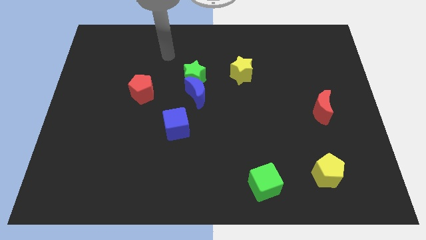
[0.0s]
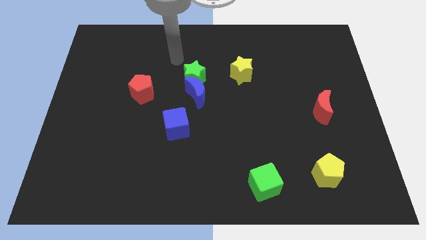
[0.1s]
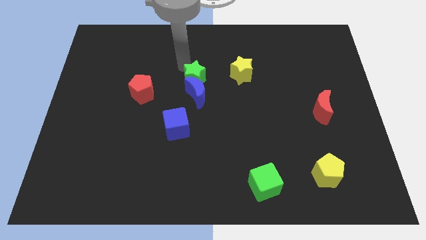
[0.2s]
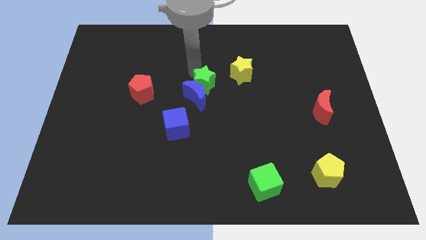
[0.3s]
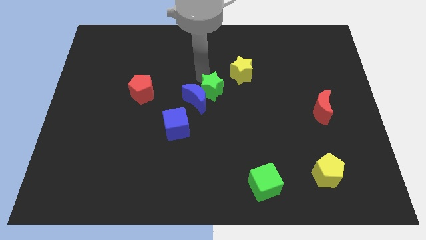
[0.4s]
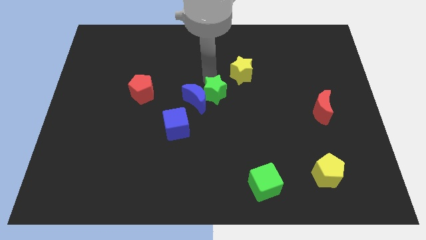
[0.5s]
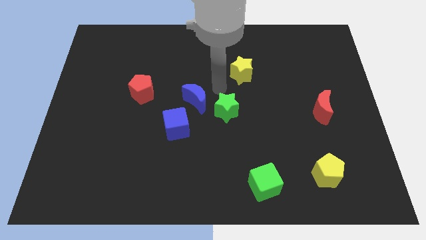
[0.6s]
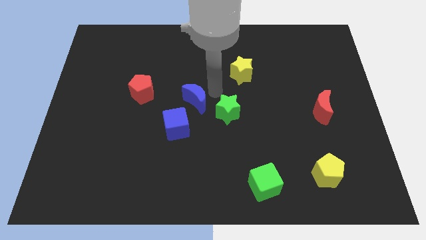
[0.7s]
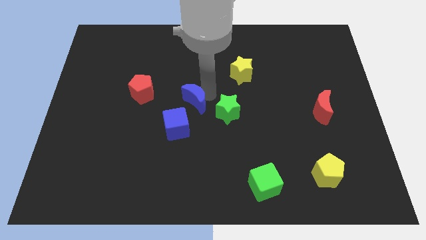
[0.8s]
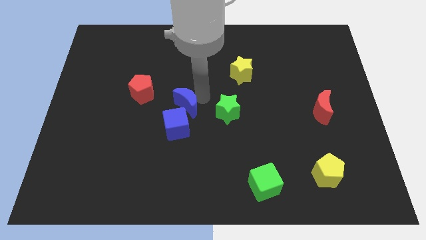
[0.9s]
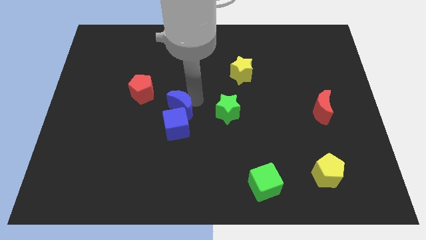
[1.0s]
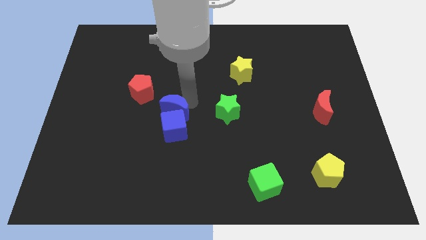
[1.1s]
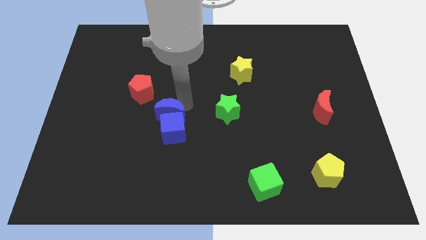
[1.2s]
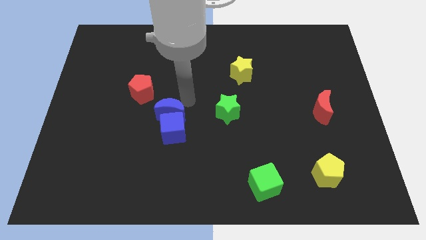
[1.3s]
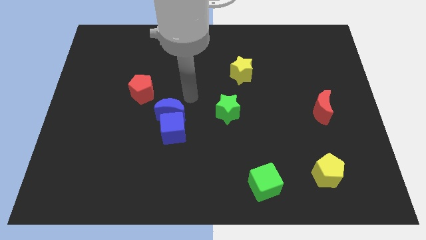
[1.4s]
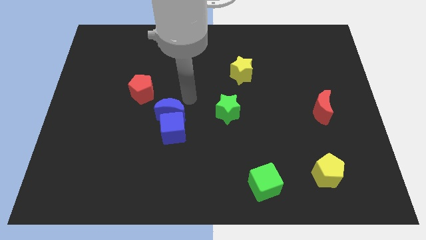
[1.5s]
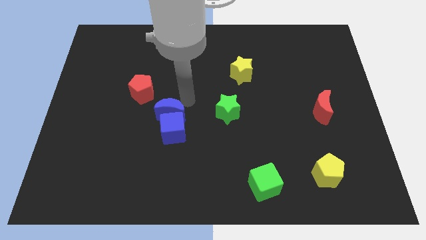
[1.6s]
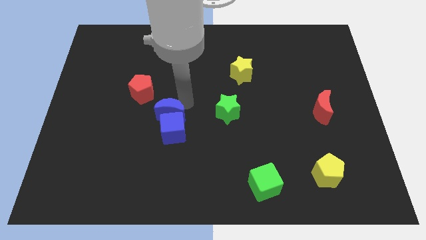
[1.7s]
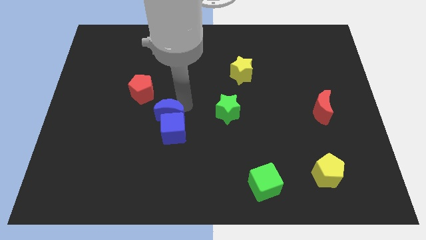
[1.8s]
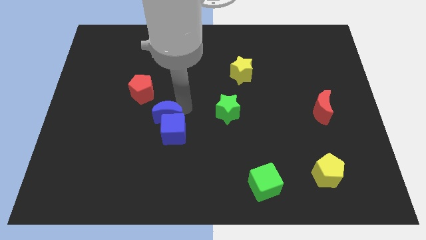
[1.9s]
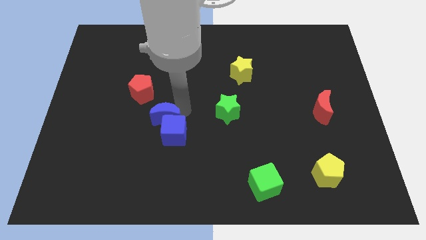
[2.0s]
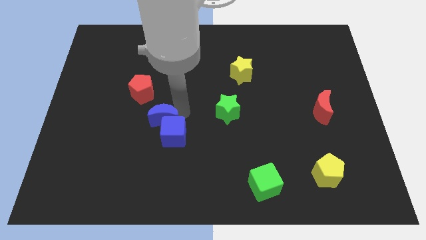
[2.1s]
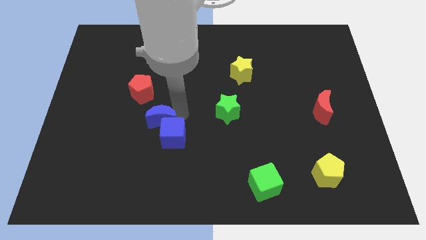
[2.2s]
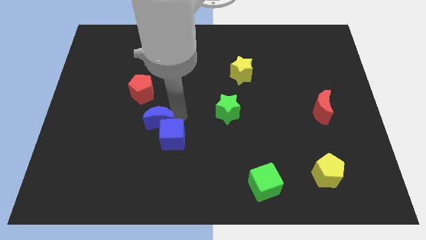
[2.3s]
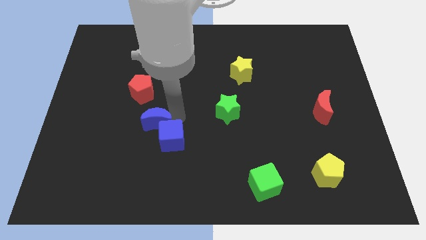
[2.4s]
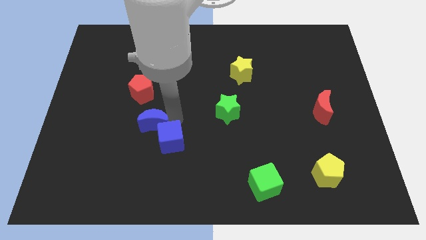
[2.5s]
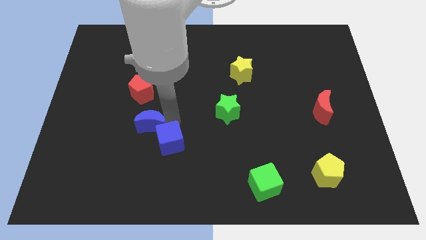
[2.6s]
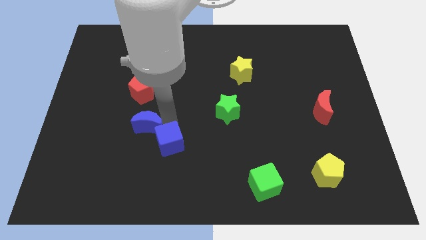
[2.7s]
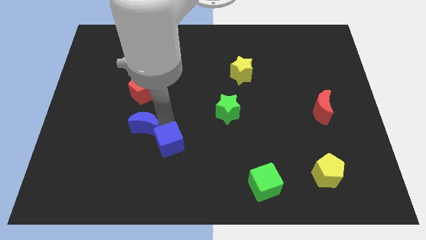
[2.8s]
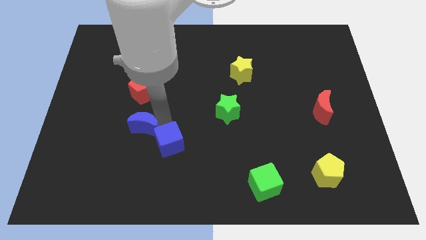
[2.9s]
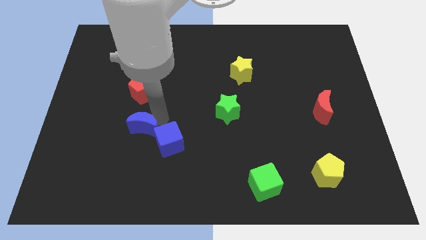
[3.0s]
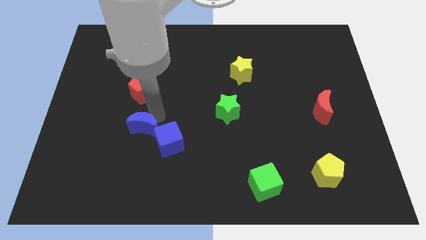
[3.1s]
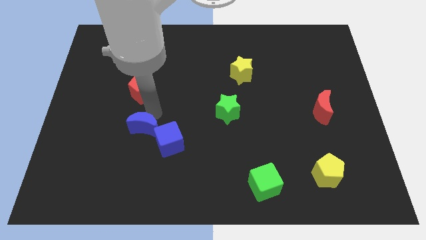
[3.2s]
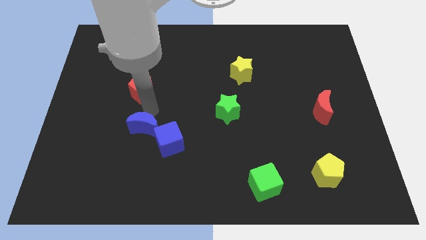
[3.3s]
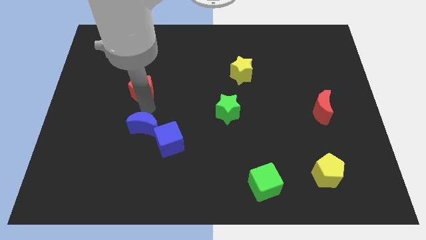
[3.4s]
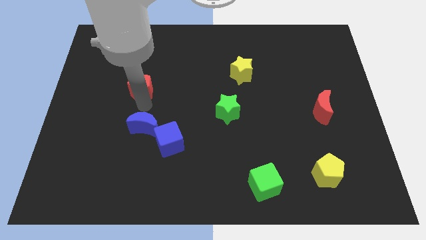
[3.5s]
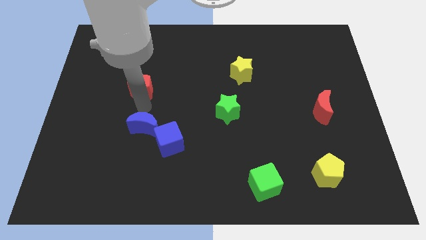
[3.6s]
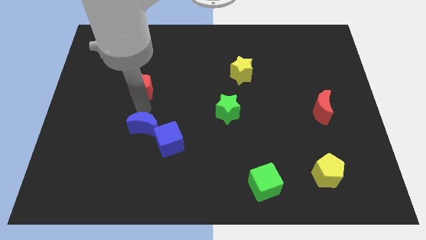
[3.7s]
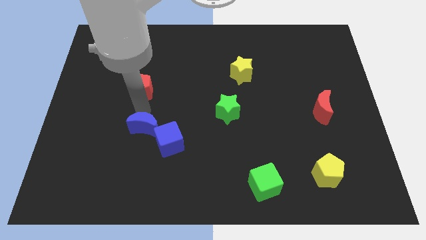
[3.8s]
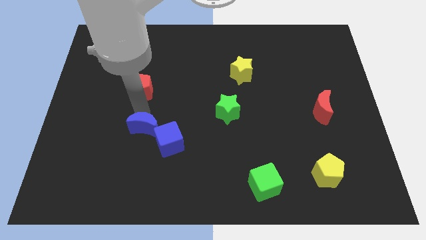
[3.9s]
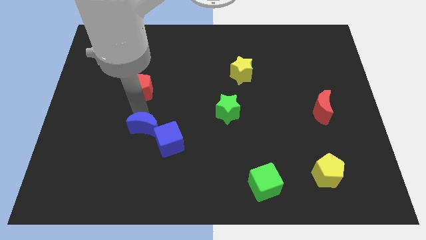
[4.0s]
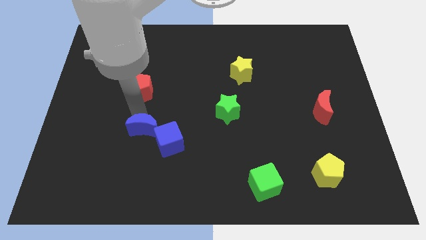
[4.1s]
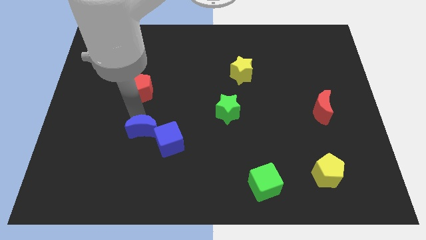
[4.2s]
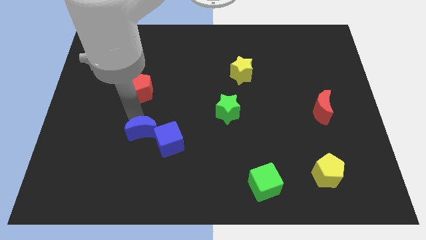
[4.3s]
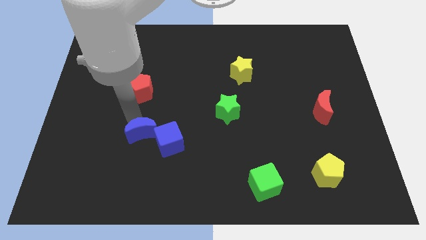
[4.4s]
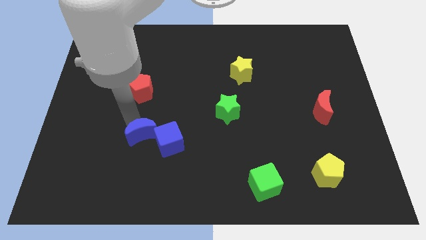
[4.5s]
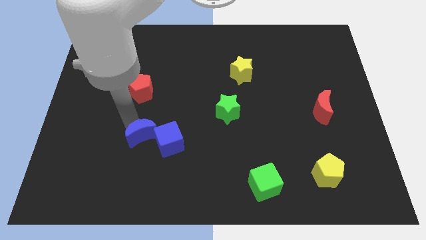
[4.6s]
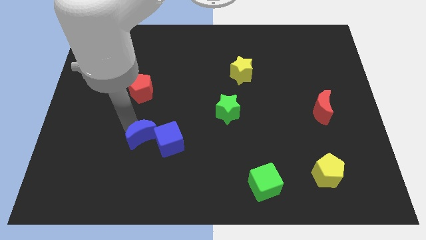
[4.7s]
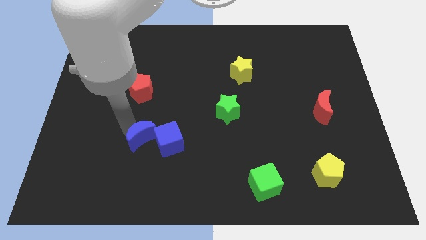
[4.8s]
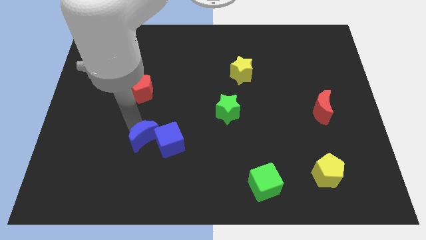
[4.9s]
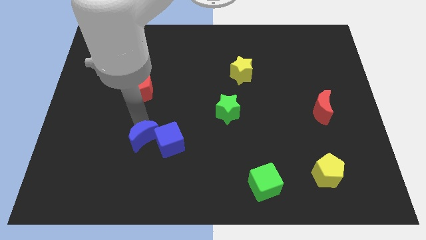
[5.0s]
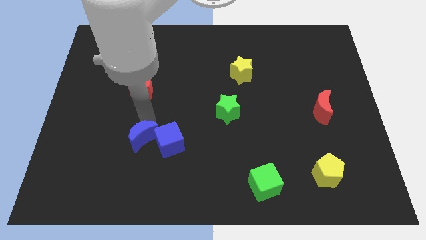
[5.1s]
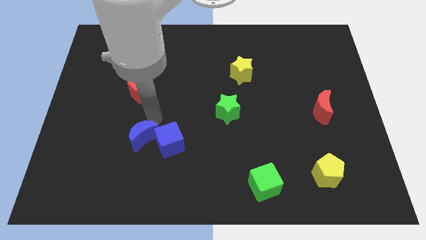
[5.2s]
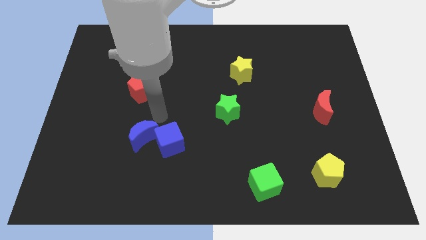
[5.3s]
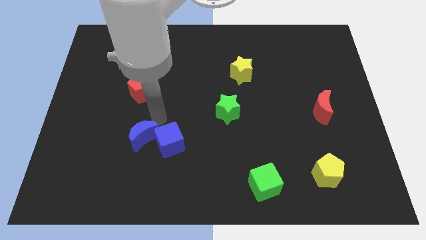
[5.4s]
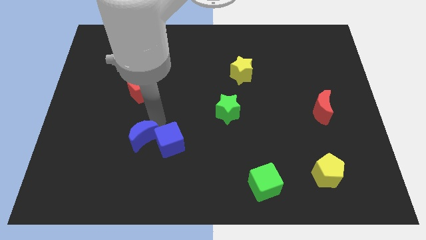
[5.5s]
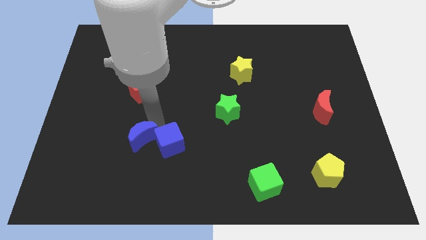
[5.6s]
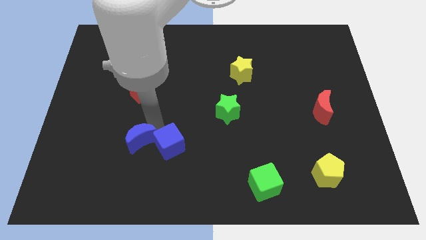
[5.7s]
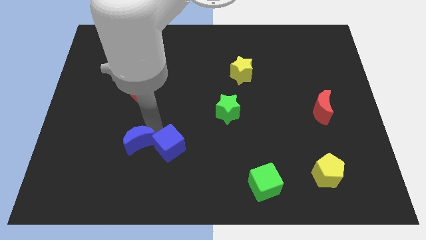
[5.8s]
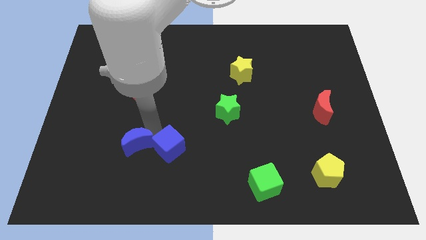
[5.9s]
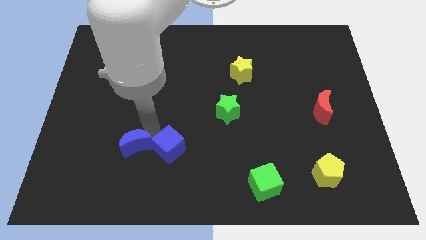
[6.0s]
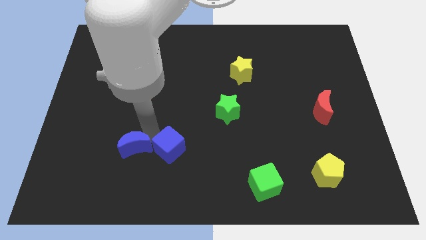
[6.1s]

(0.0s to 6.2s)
slide the blue moon diagonally down and left

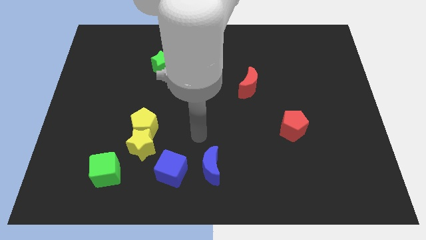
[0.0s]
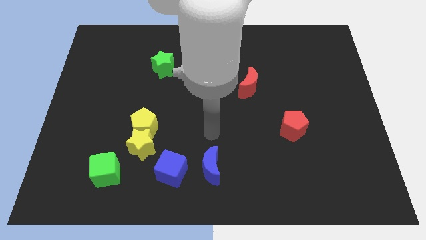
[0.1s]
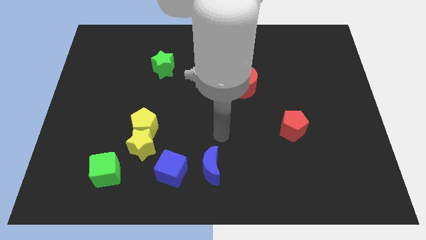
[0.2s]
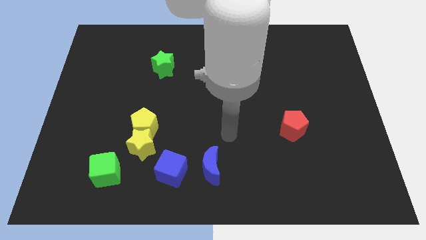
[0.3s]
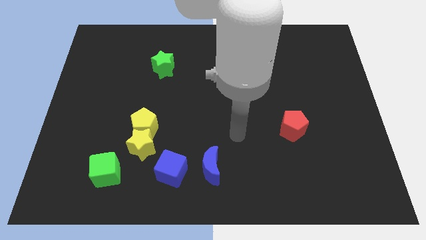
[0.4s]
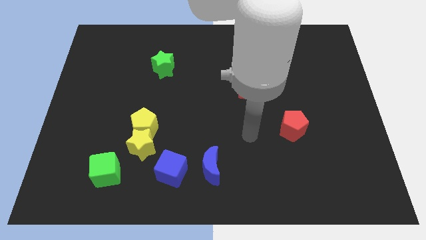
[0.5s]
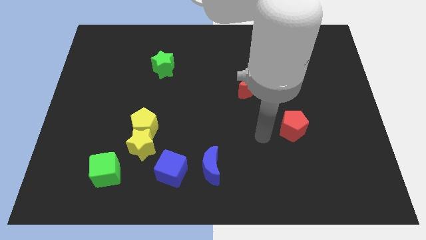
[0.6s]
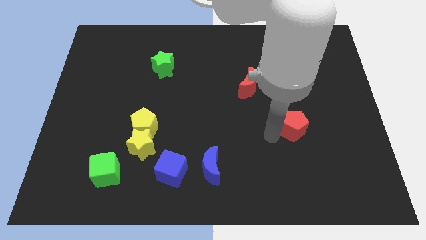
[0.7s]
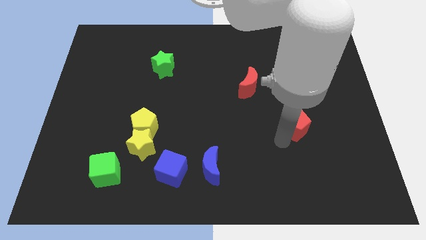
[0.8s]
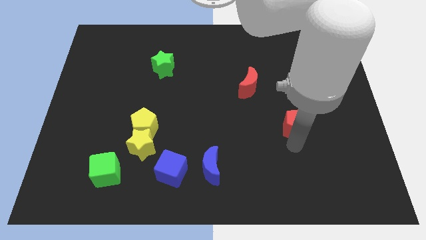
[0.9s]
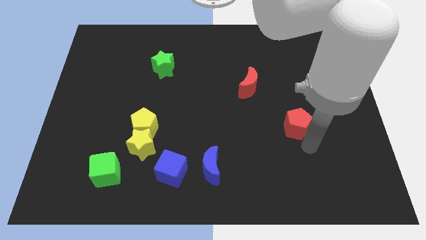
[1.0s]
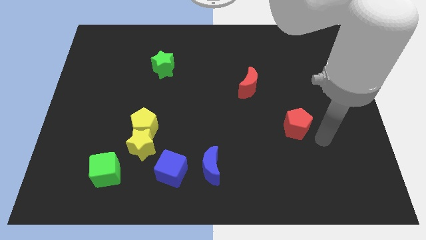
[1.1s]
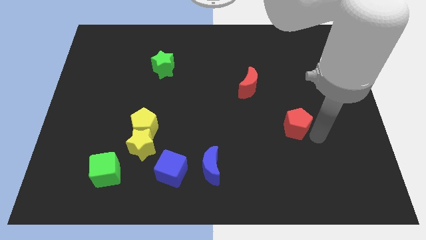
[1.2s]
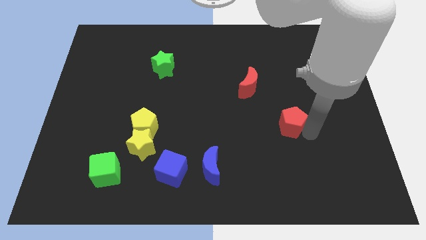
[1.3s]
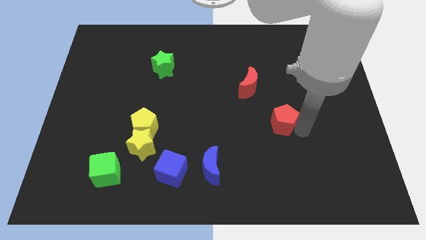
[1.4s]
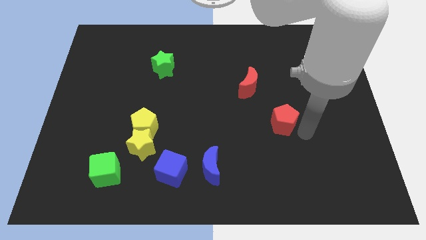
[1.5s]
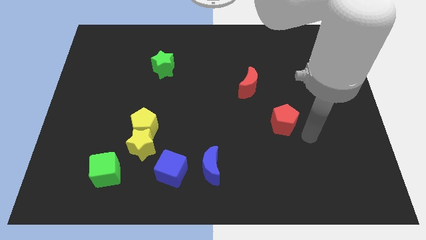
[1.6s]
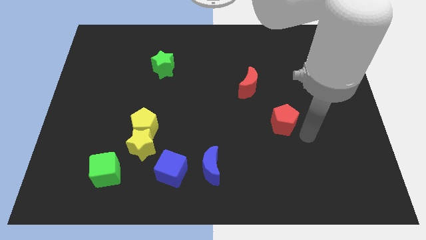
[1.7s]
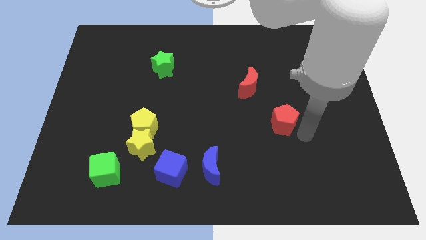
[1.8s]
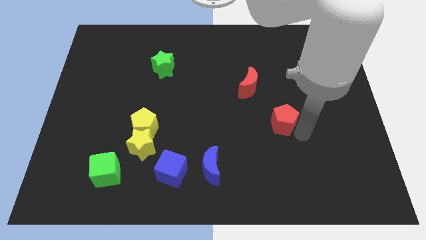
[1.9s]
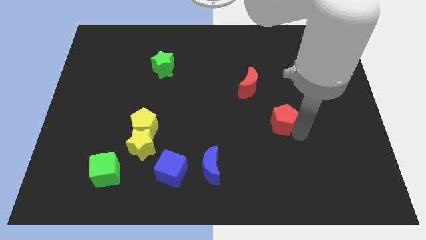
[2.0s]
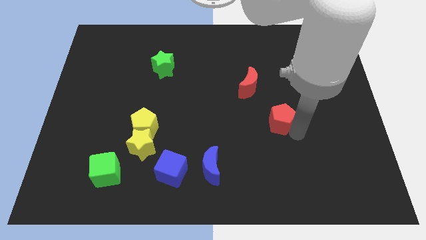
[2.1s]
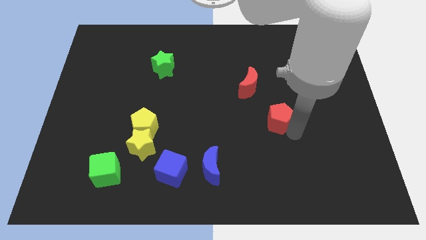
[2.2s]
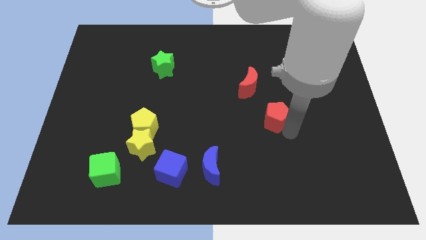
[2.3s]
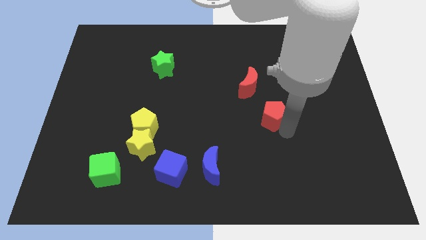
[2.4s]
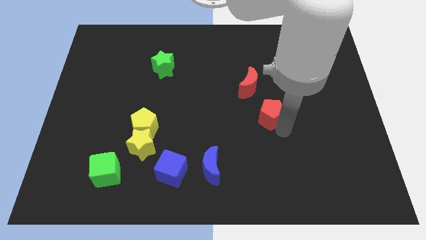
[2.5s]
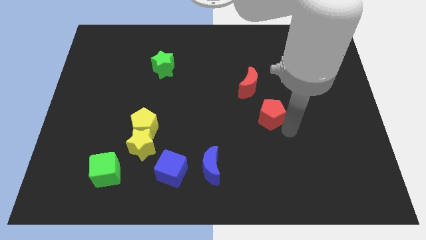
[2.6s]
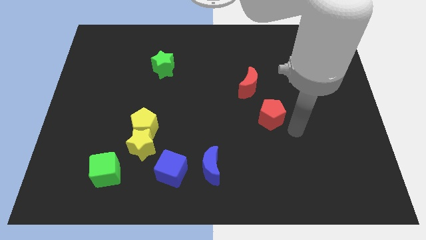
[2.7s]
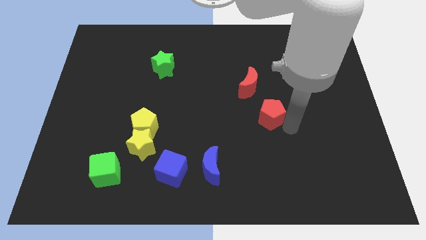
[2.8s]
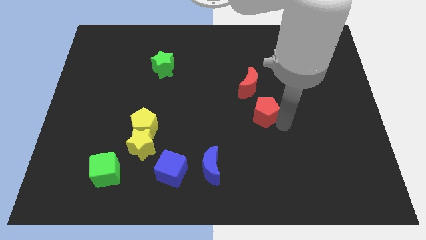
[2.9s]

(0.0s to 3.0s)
slightly slide the red pentagon upwards and then left
